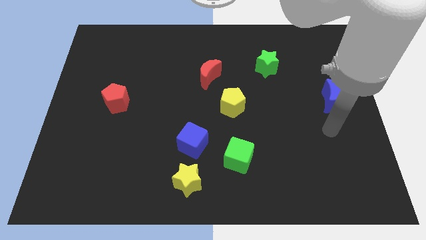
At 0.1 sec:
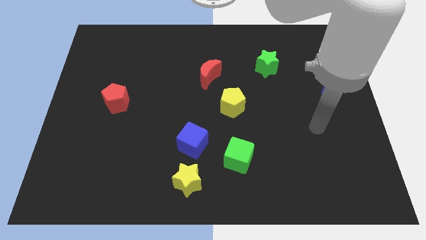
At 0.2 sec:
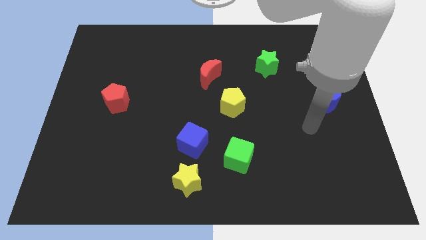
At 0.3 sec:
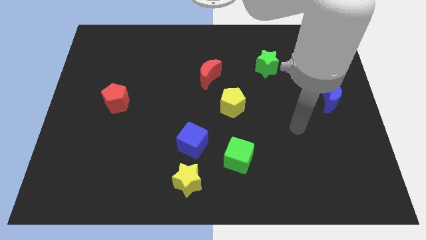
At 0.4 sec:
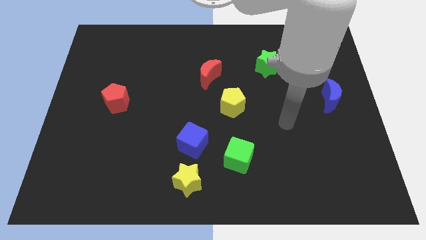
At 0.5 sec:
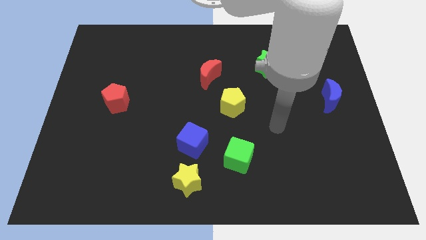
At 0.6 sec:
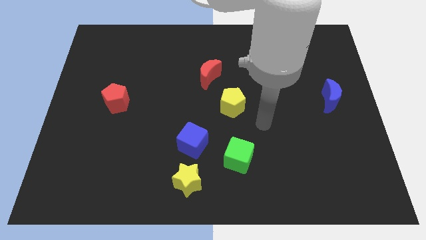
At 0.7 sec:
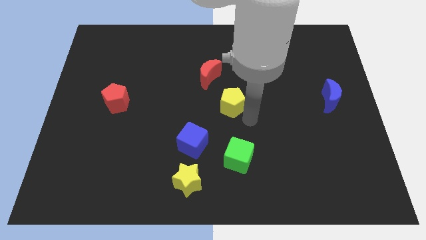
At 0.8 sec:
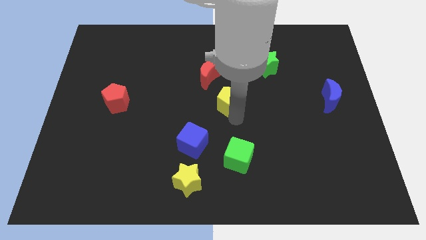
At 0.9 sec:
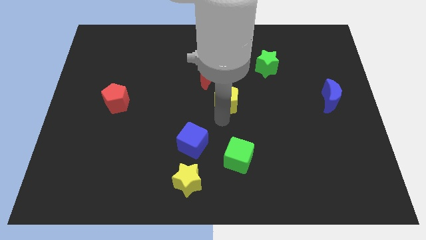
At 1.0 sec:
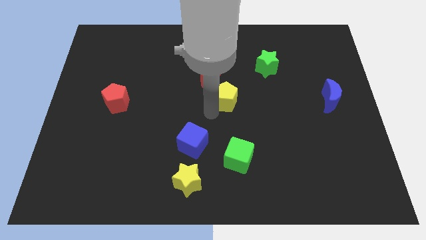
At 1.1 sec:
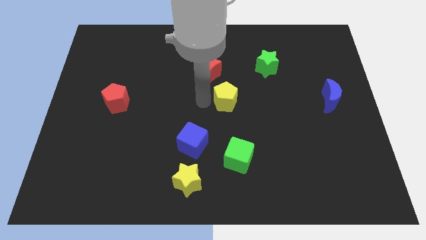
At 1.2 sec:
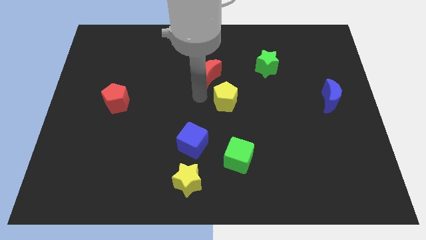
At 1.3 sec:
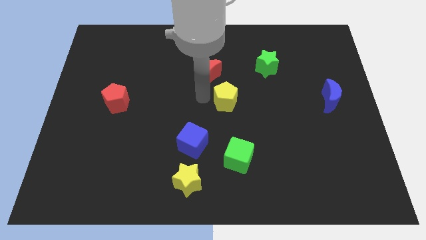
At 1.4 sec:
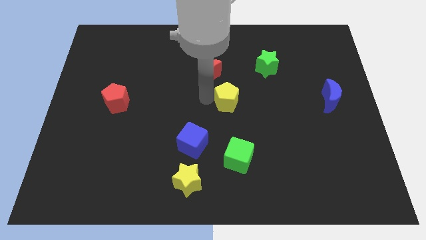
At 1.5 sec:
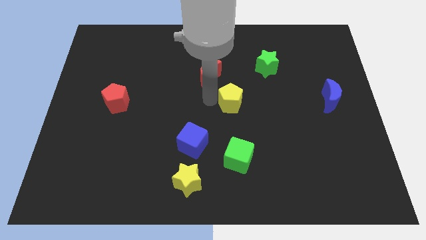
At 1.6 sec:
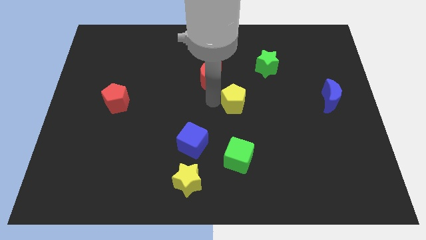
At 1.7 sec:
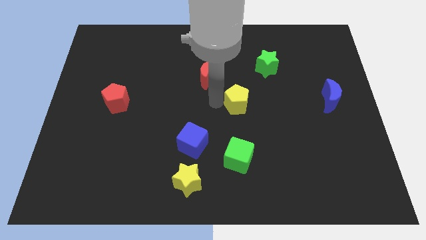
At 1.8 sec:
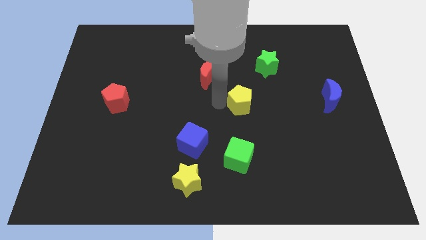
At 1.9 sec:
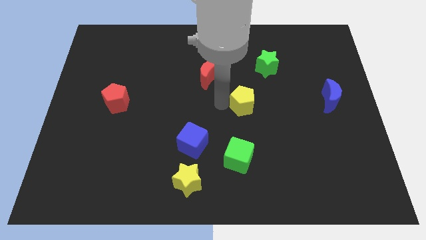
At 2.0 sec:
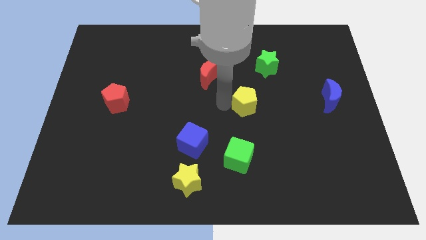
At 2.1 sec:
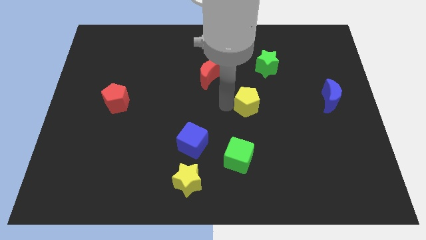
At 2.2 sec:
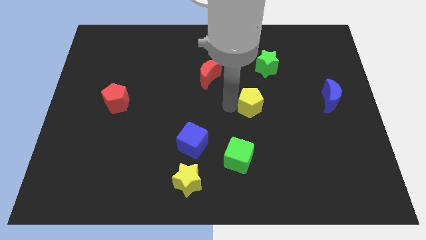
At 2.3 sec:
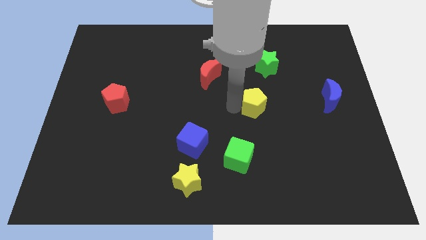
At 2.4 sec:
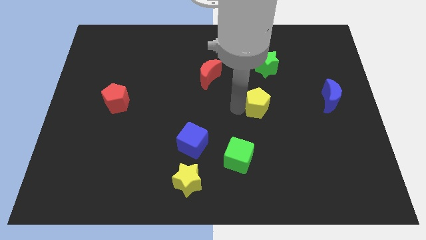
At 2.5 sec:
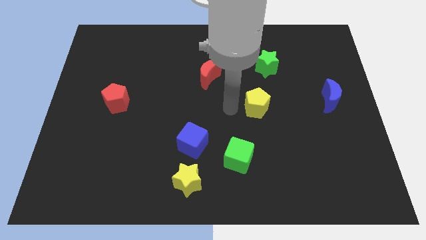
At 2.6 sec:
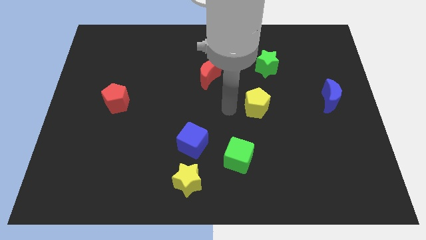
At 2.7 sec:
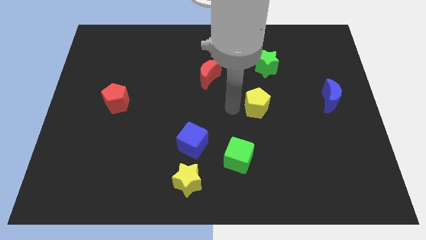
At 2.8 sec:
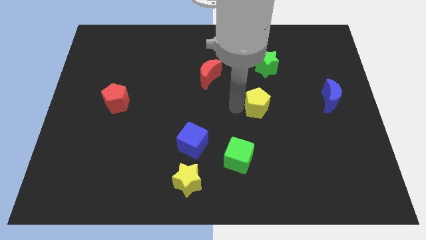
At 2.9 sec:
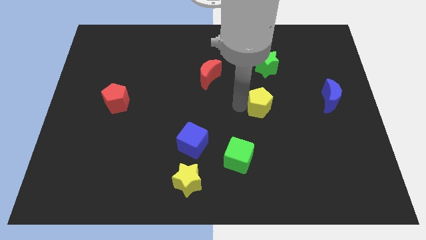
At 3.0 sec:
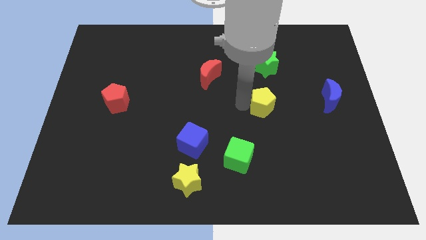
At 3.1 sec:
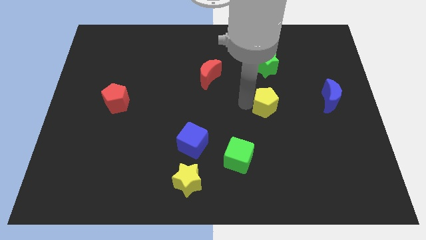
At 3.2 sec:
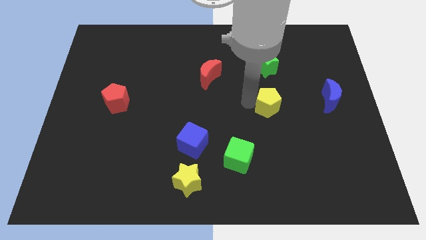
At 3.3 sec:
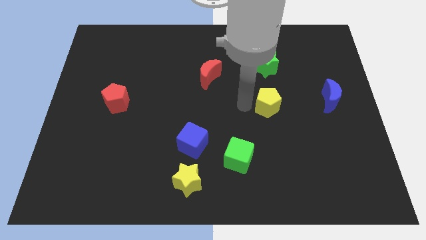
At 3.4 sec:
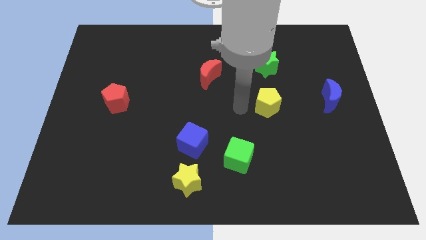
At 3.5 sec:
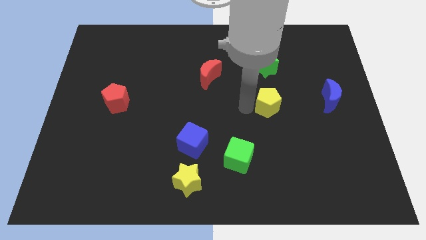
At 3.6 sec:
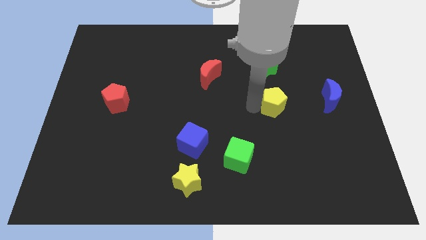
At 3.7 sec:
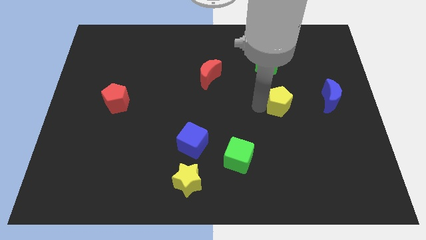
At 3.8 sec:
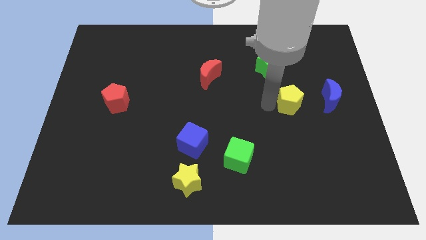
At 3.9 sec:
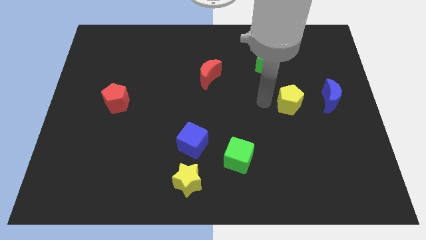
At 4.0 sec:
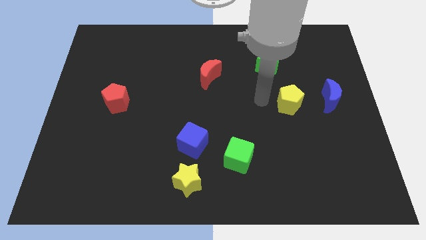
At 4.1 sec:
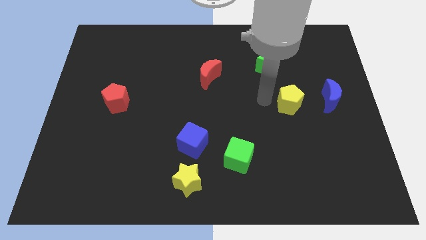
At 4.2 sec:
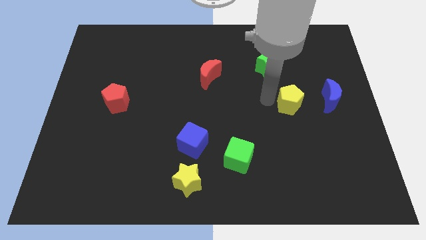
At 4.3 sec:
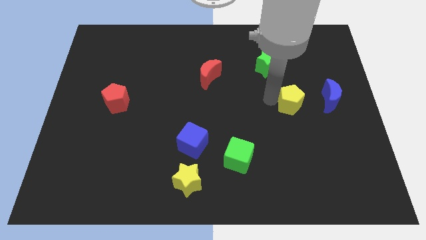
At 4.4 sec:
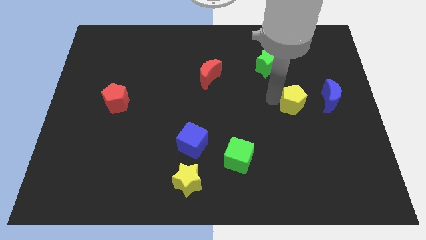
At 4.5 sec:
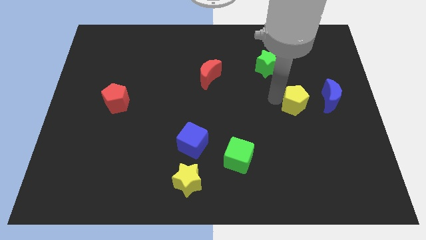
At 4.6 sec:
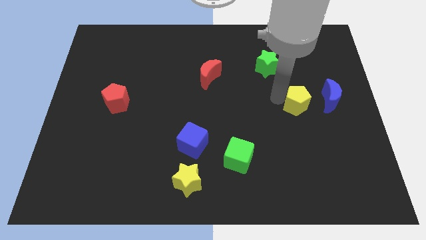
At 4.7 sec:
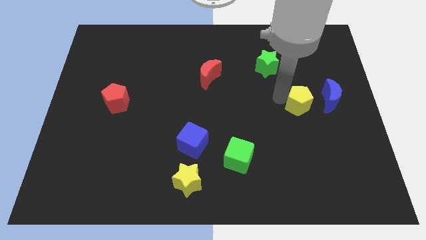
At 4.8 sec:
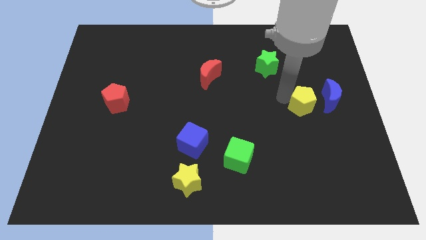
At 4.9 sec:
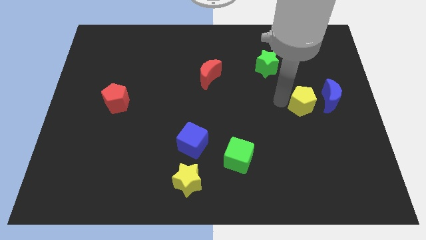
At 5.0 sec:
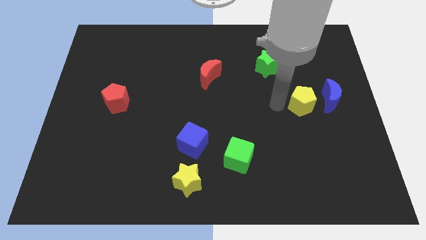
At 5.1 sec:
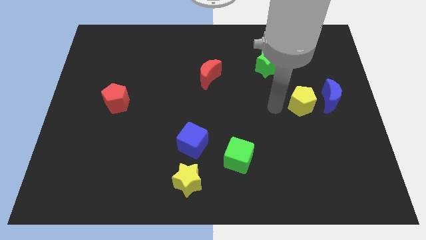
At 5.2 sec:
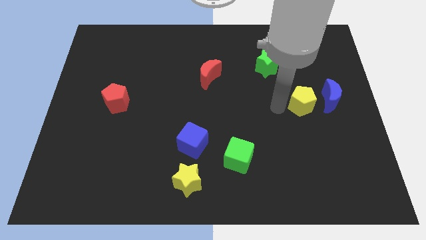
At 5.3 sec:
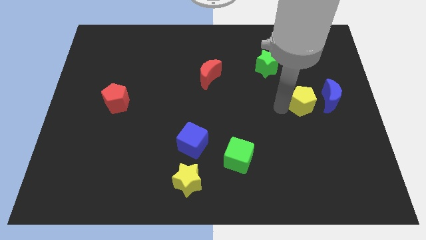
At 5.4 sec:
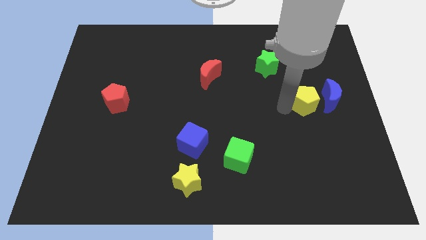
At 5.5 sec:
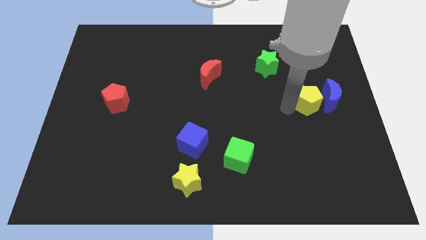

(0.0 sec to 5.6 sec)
put the yellow pentagon to the blue moon

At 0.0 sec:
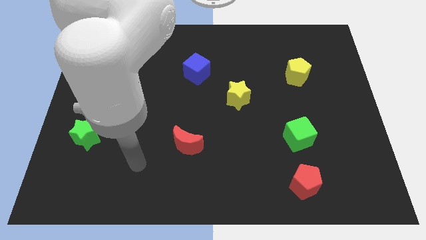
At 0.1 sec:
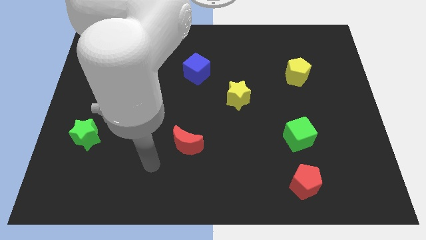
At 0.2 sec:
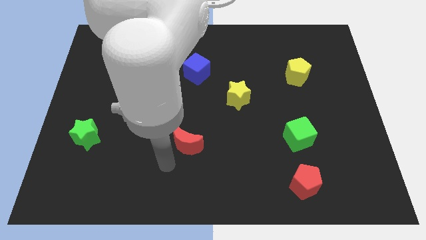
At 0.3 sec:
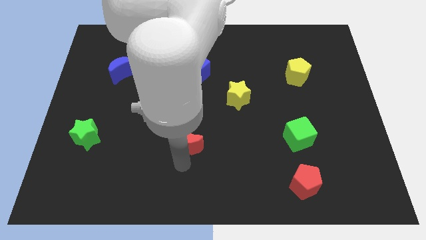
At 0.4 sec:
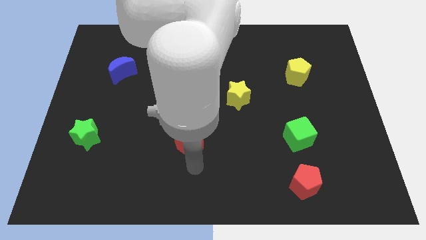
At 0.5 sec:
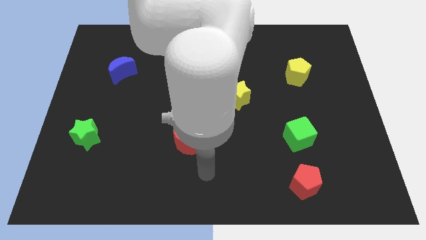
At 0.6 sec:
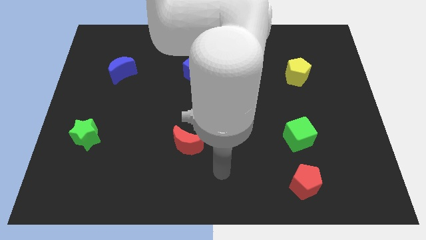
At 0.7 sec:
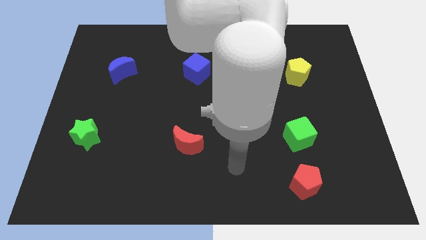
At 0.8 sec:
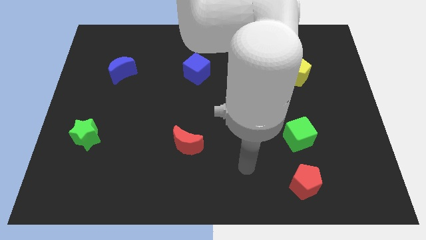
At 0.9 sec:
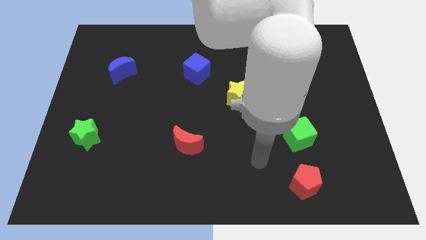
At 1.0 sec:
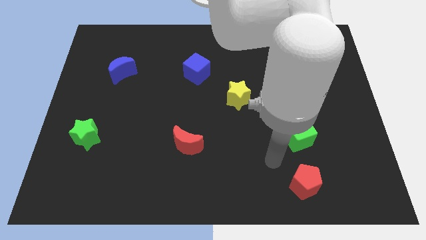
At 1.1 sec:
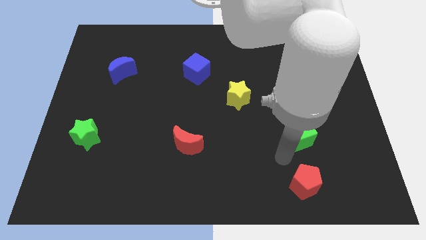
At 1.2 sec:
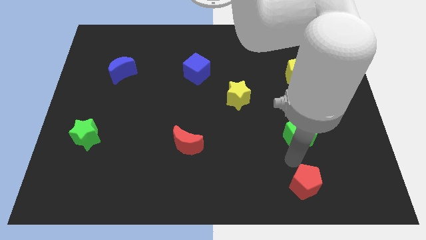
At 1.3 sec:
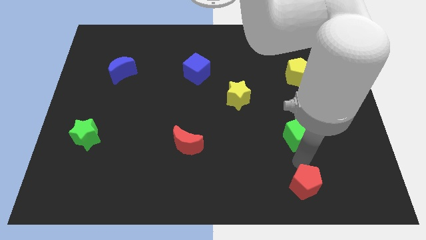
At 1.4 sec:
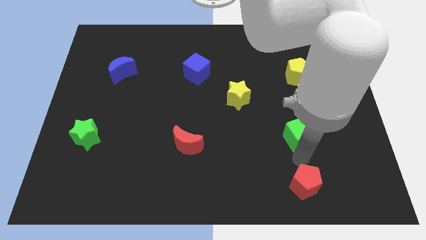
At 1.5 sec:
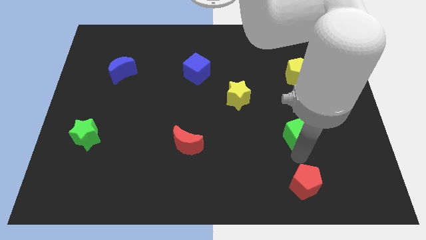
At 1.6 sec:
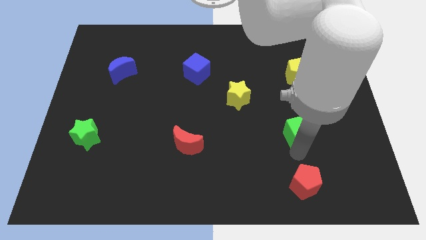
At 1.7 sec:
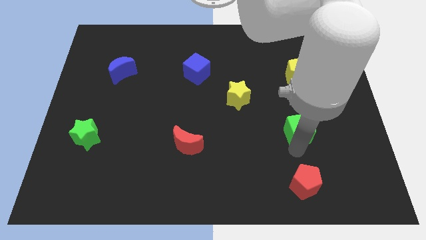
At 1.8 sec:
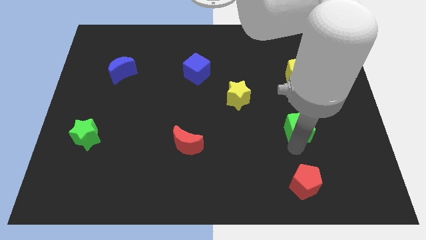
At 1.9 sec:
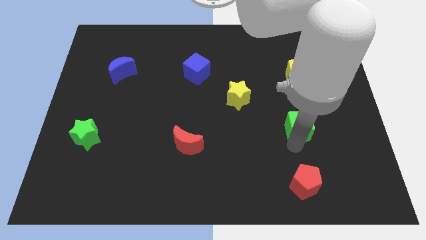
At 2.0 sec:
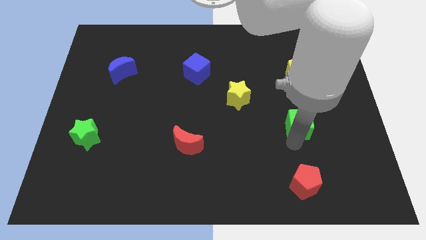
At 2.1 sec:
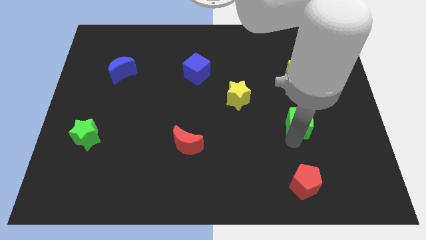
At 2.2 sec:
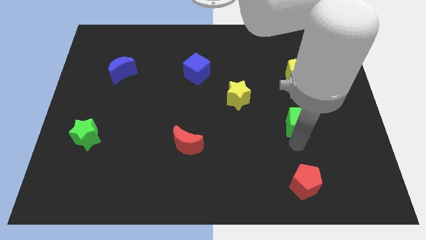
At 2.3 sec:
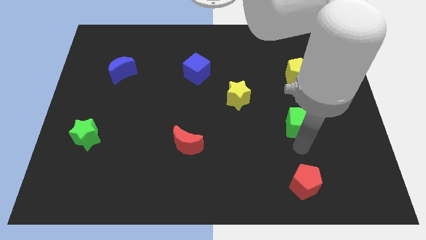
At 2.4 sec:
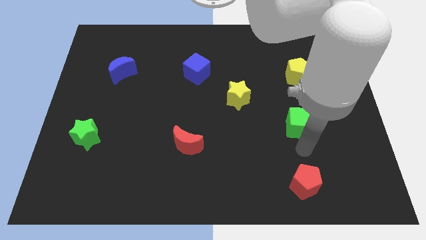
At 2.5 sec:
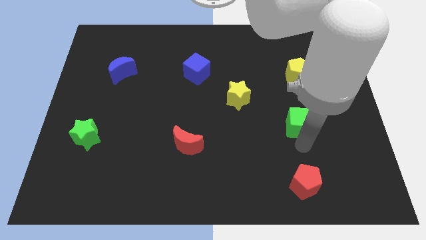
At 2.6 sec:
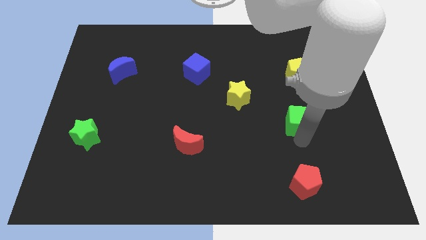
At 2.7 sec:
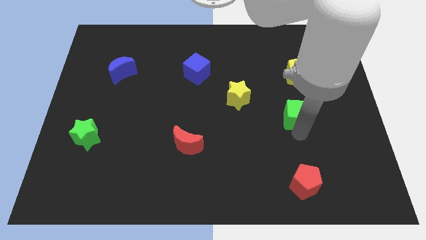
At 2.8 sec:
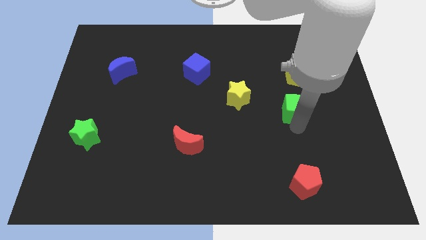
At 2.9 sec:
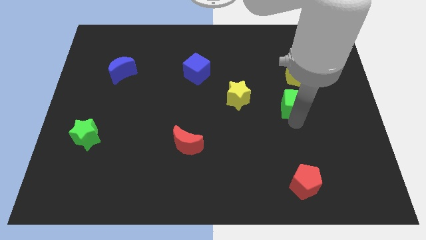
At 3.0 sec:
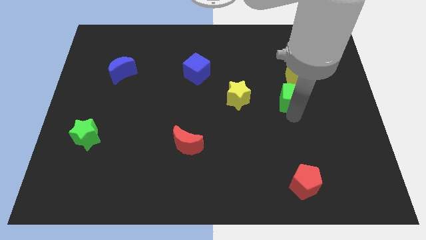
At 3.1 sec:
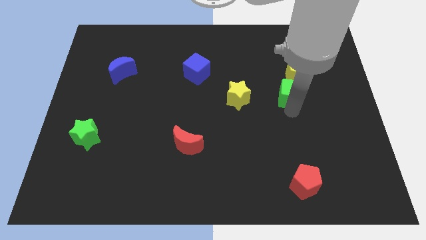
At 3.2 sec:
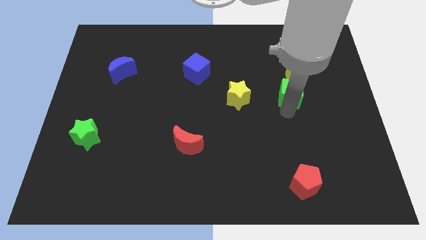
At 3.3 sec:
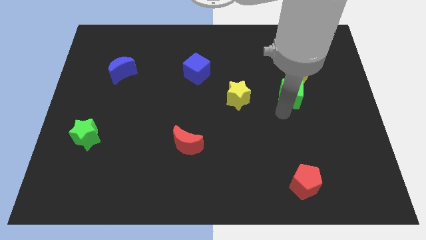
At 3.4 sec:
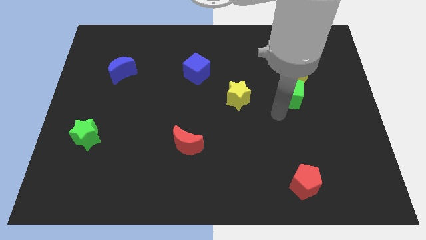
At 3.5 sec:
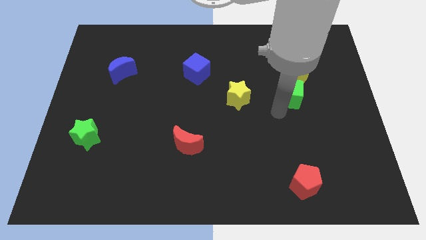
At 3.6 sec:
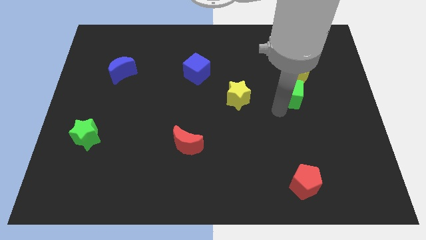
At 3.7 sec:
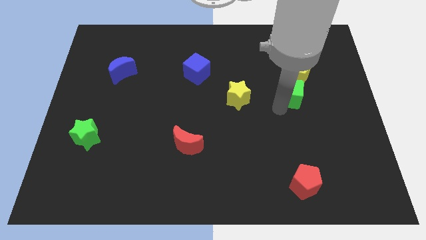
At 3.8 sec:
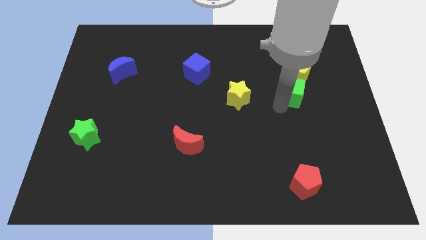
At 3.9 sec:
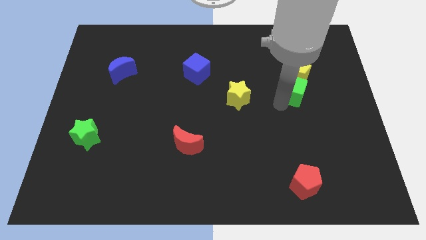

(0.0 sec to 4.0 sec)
push the green cube towards the yellow pentagon
